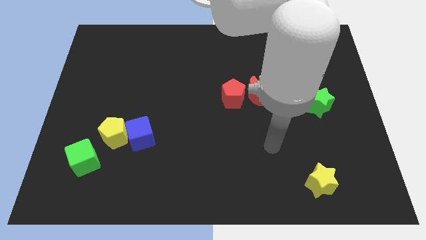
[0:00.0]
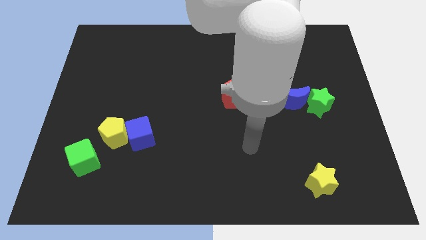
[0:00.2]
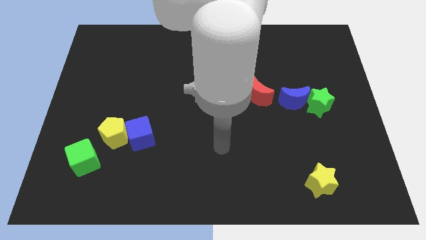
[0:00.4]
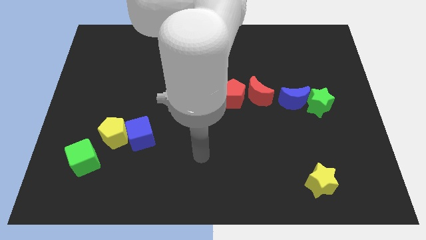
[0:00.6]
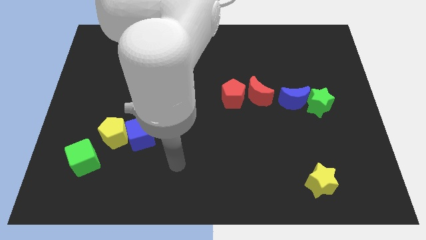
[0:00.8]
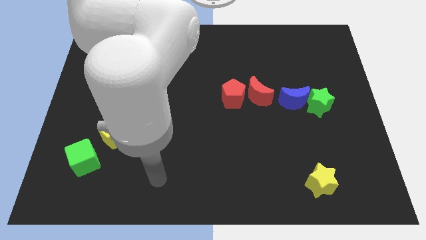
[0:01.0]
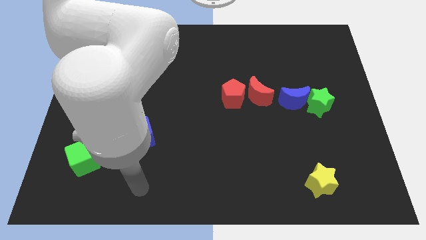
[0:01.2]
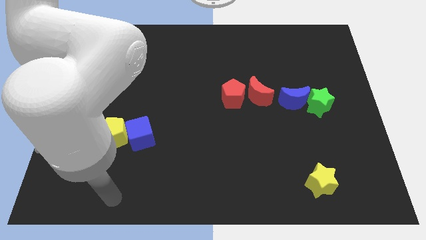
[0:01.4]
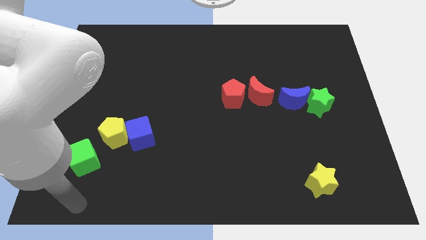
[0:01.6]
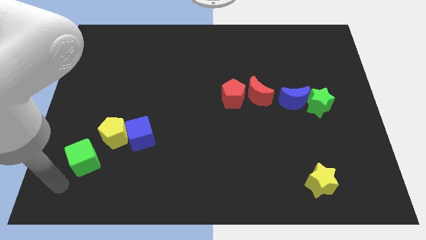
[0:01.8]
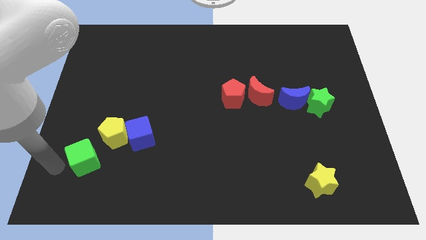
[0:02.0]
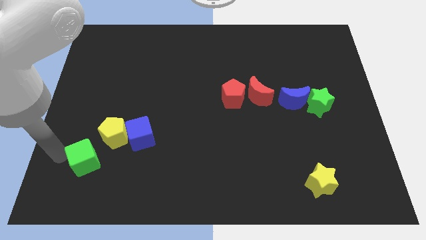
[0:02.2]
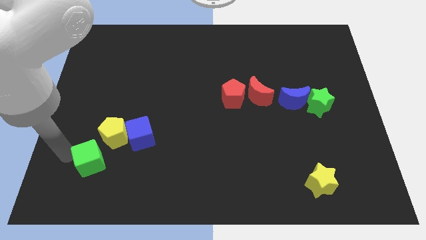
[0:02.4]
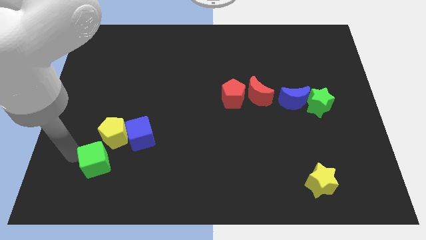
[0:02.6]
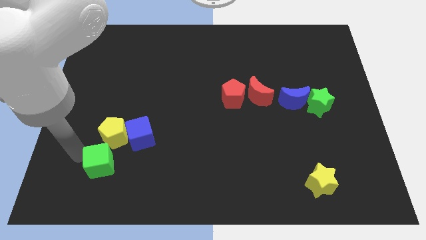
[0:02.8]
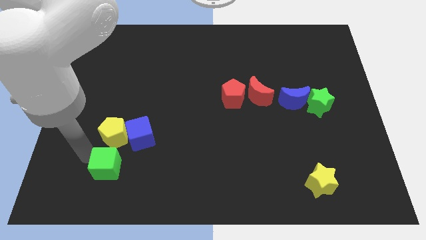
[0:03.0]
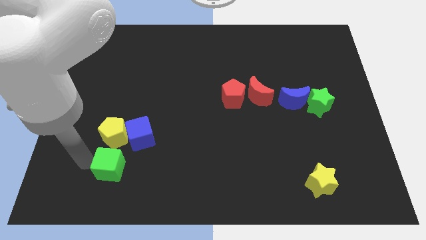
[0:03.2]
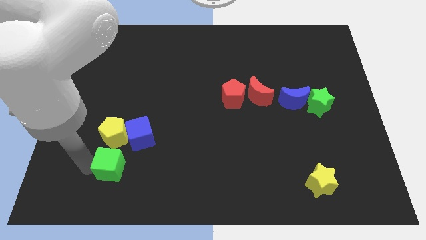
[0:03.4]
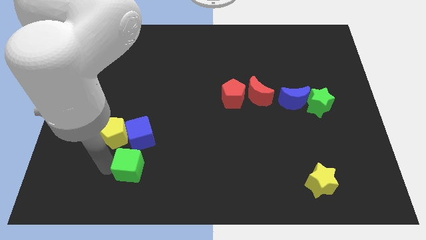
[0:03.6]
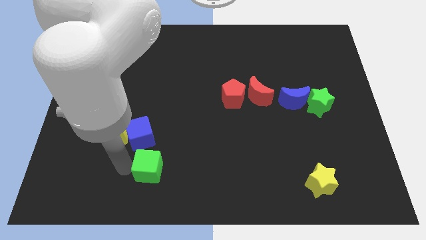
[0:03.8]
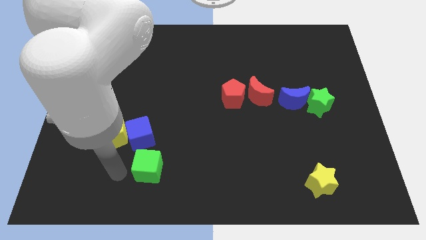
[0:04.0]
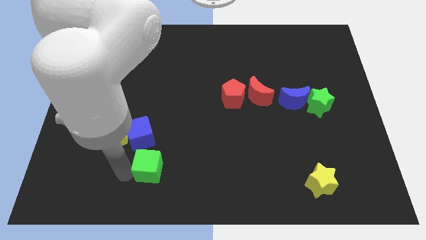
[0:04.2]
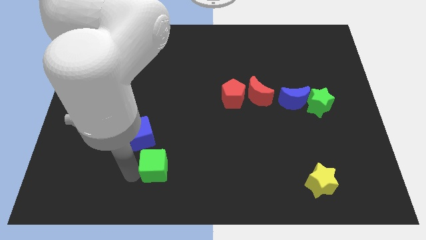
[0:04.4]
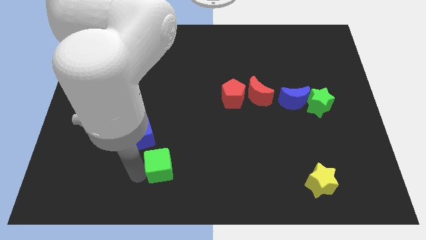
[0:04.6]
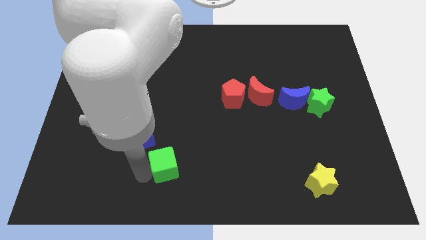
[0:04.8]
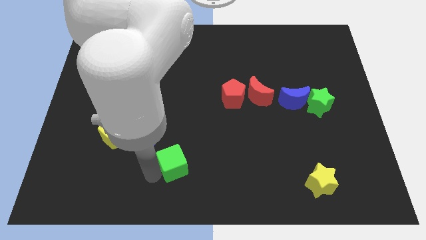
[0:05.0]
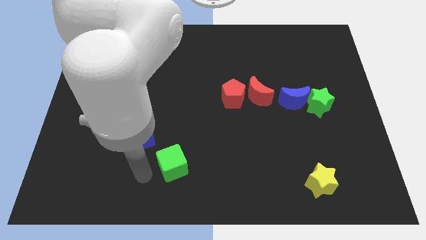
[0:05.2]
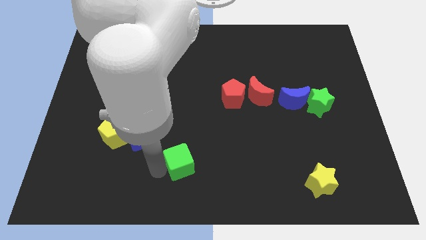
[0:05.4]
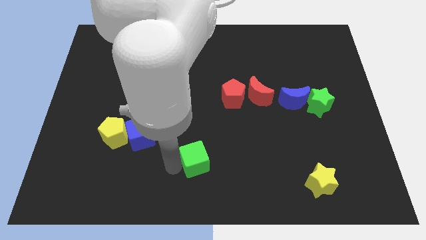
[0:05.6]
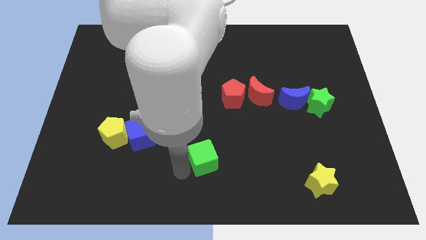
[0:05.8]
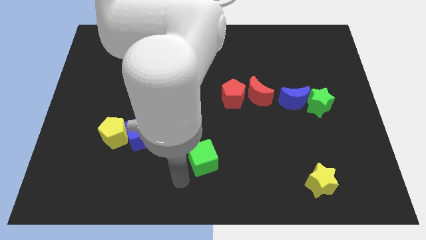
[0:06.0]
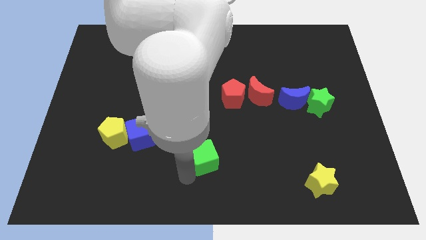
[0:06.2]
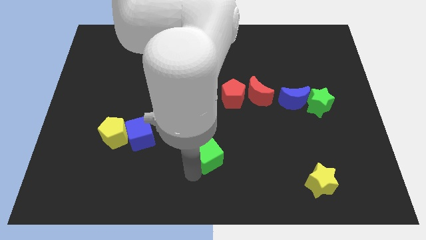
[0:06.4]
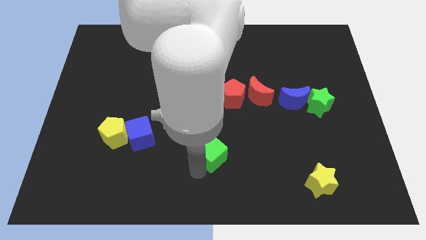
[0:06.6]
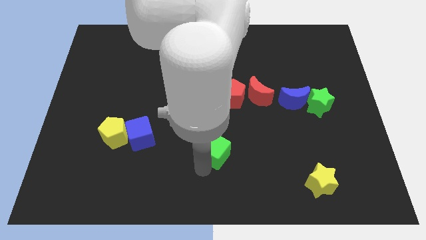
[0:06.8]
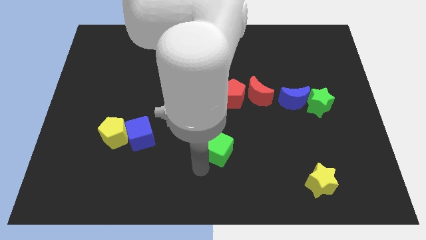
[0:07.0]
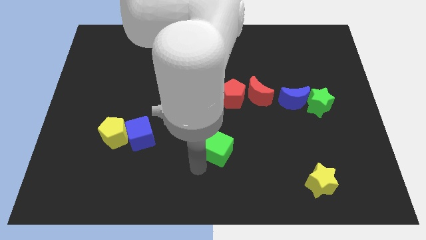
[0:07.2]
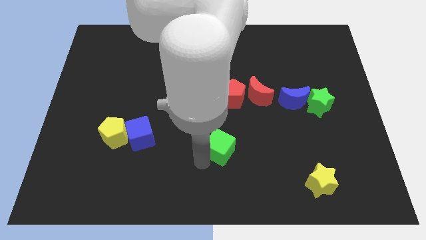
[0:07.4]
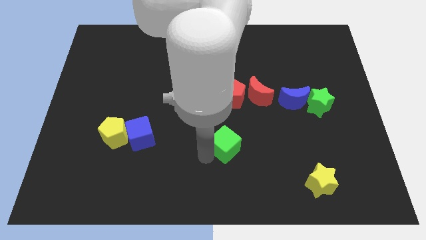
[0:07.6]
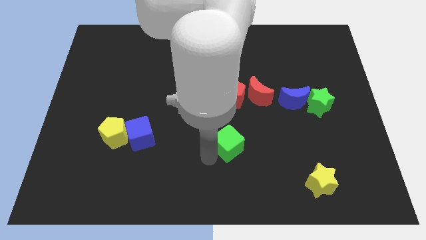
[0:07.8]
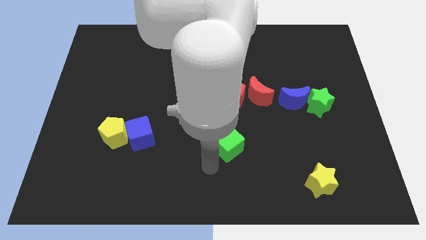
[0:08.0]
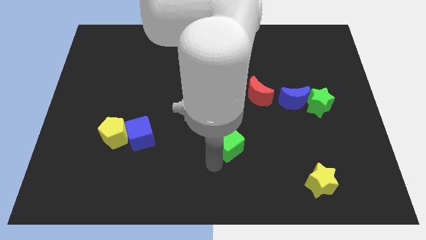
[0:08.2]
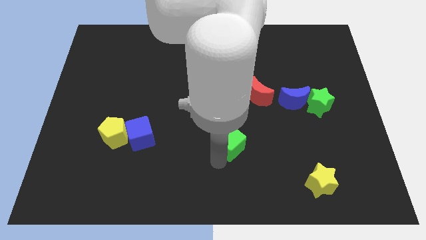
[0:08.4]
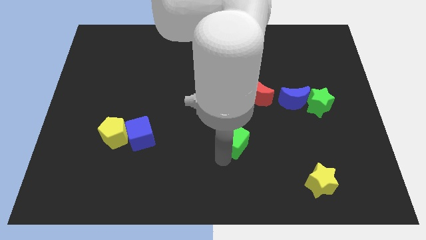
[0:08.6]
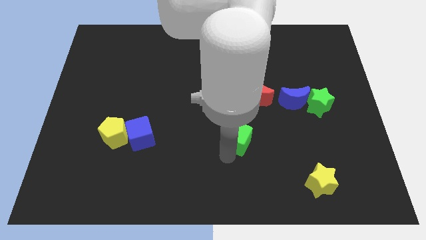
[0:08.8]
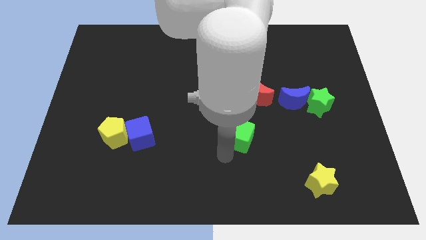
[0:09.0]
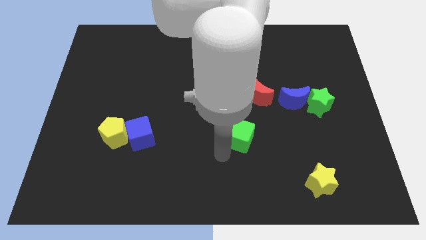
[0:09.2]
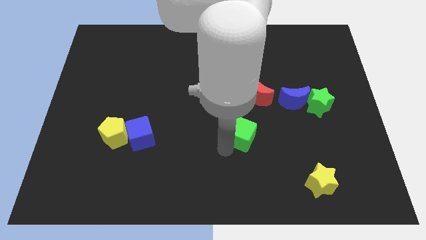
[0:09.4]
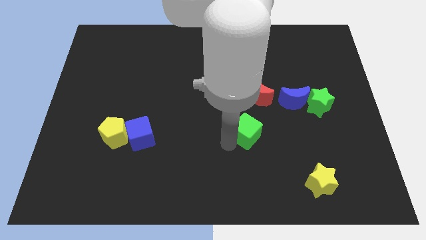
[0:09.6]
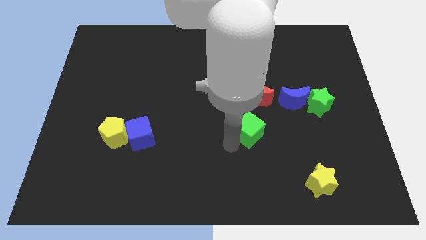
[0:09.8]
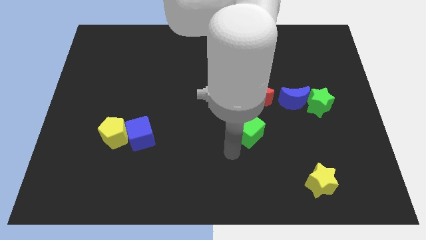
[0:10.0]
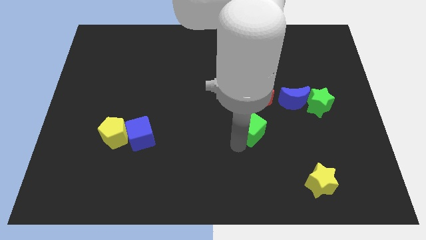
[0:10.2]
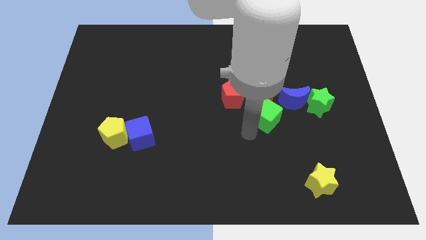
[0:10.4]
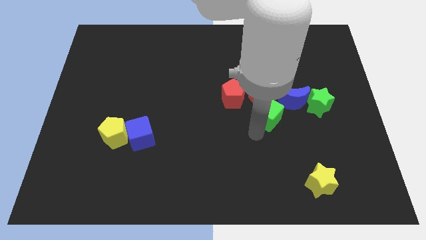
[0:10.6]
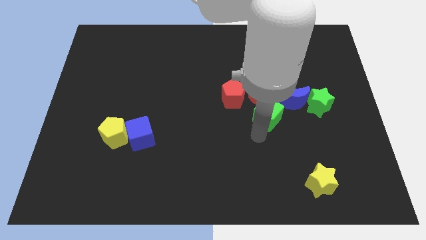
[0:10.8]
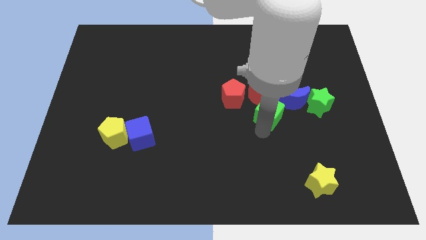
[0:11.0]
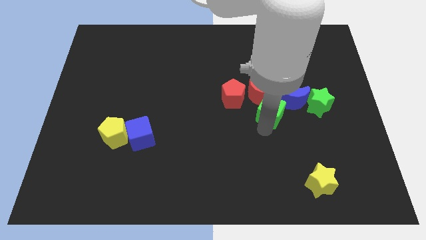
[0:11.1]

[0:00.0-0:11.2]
move the green cube just right of the red pentagon

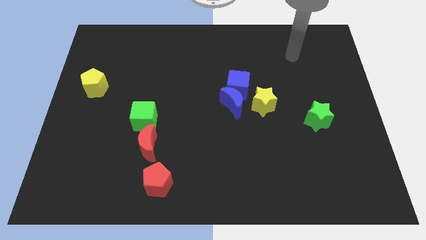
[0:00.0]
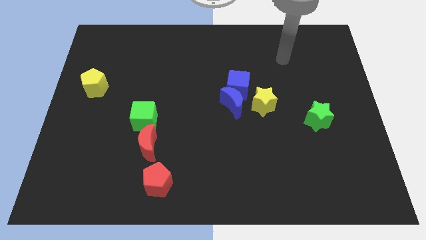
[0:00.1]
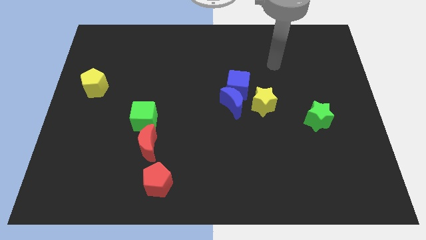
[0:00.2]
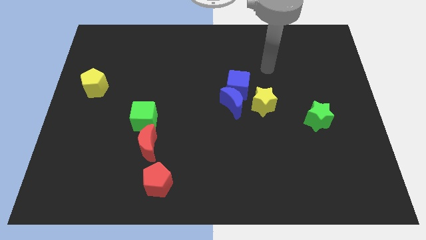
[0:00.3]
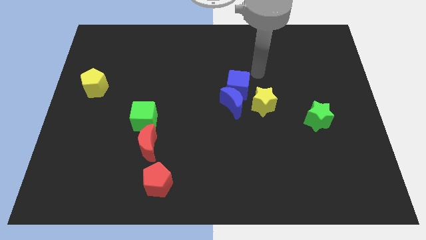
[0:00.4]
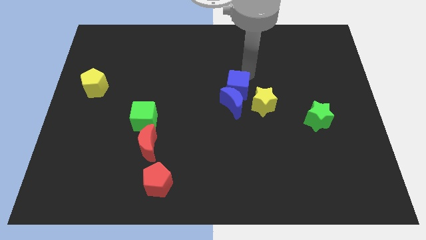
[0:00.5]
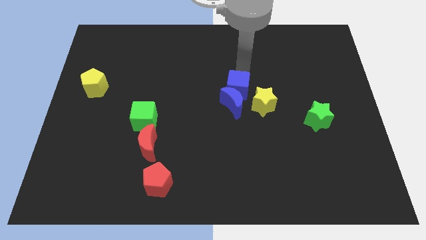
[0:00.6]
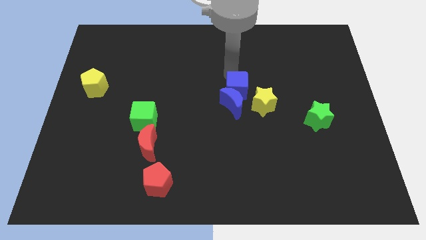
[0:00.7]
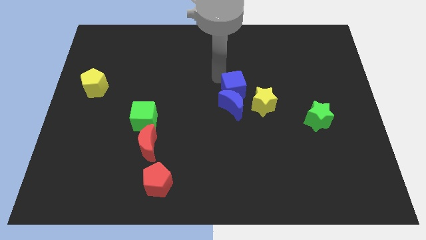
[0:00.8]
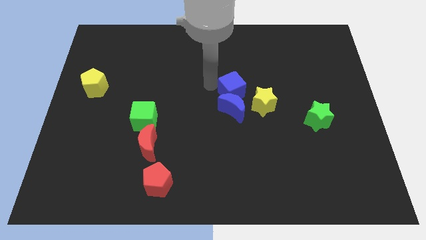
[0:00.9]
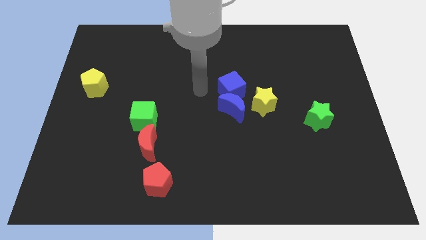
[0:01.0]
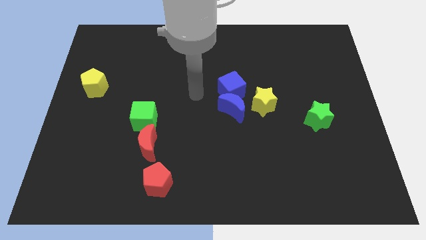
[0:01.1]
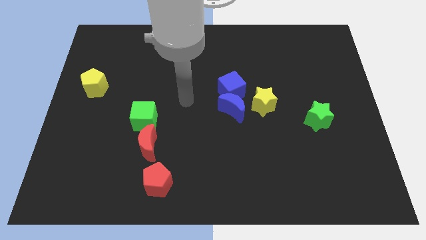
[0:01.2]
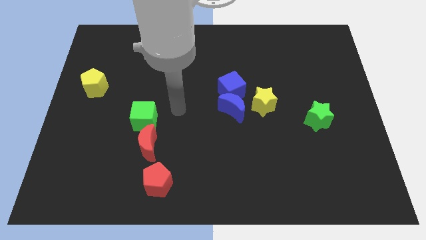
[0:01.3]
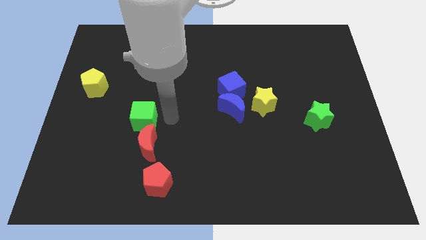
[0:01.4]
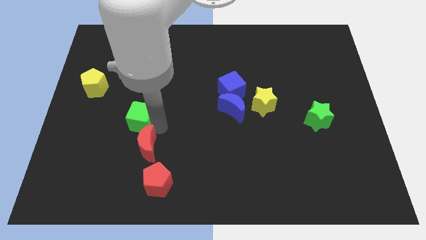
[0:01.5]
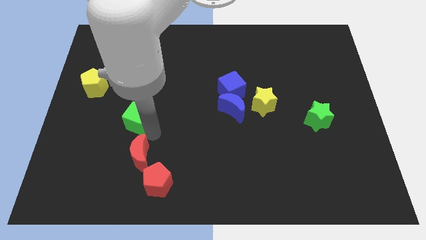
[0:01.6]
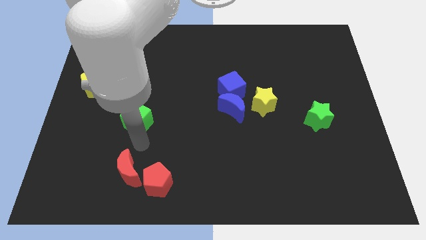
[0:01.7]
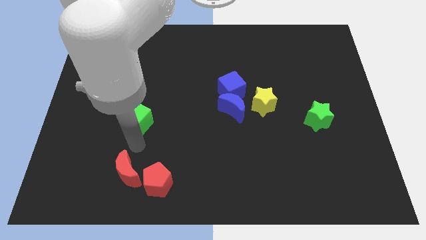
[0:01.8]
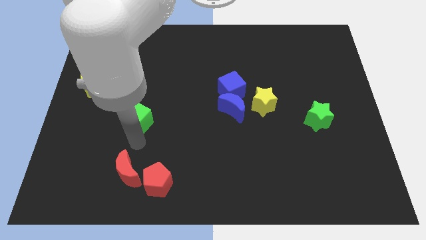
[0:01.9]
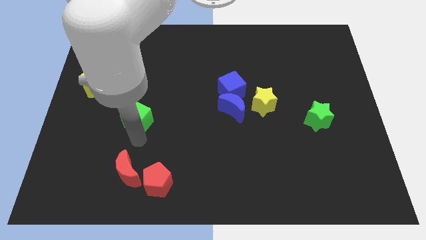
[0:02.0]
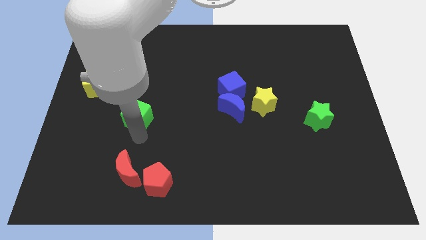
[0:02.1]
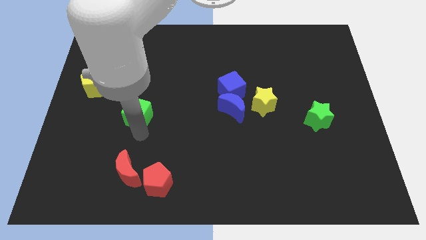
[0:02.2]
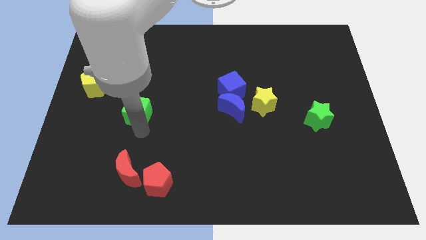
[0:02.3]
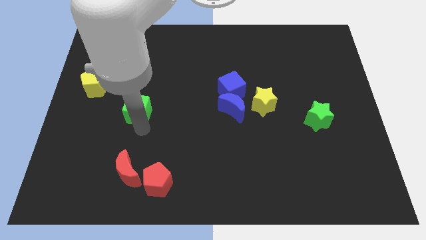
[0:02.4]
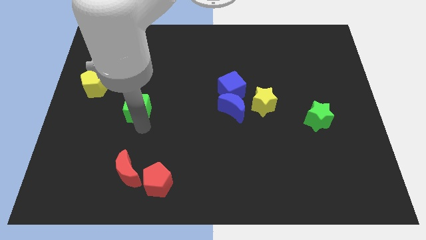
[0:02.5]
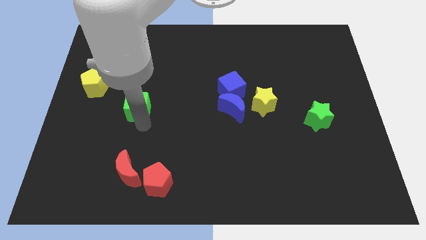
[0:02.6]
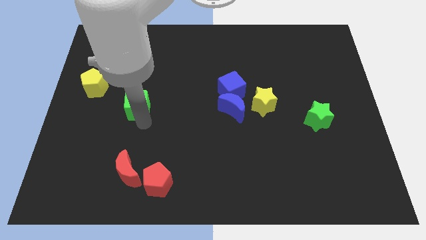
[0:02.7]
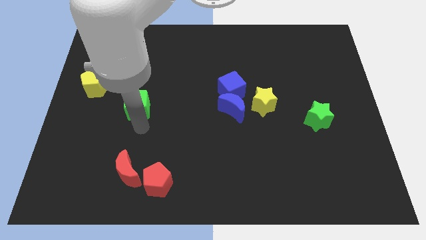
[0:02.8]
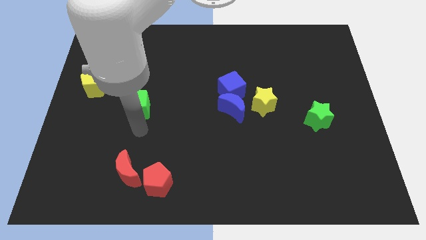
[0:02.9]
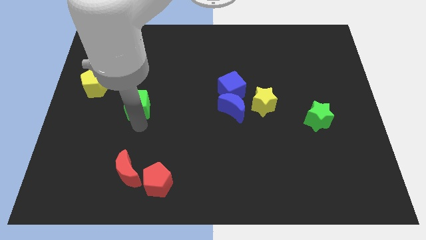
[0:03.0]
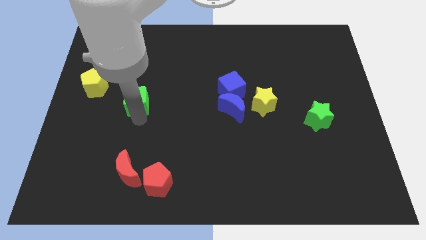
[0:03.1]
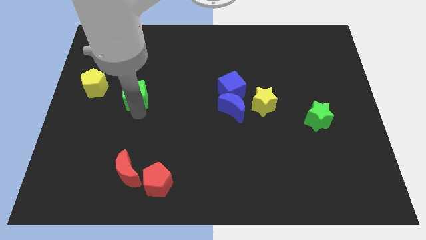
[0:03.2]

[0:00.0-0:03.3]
push the green cube to the right of the yellow pentagon
